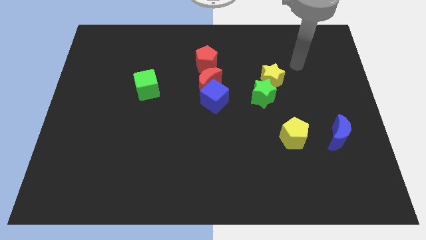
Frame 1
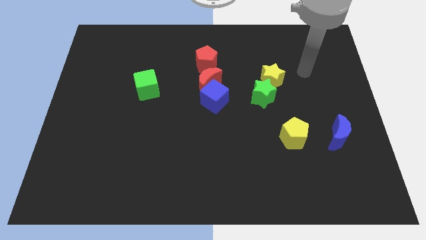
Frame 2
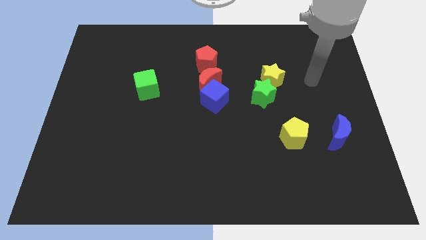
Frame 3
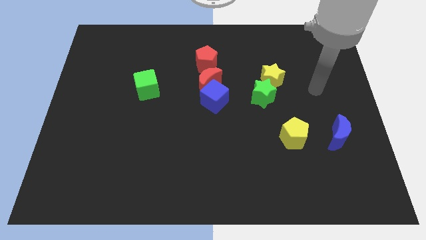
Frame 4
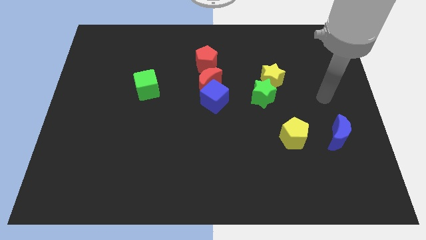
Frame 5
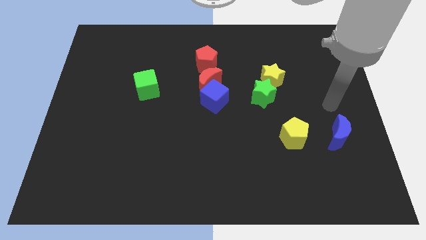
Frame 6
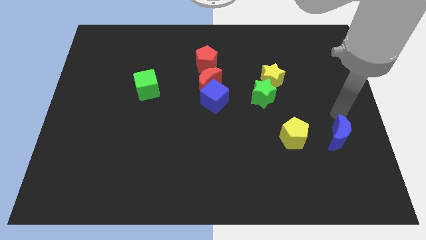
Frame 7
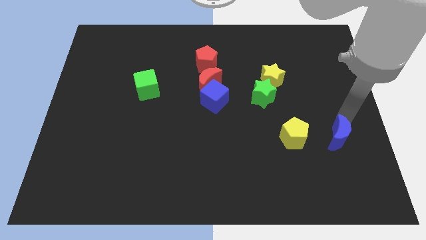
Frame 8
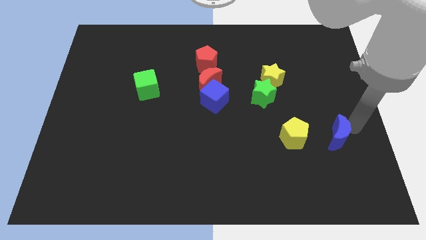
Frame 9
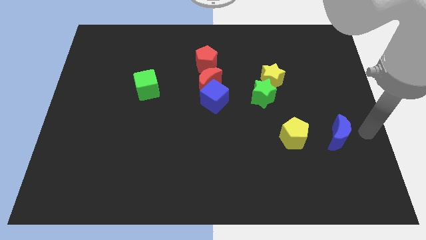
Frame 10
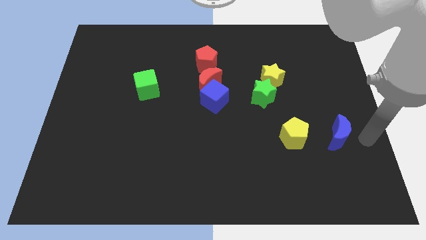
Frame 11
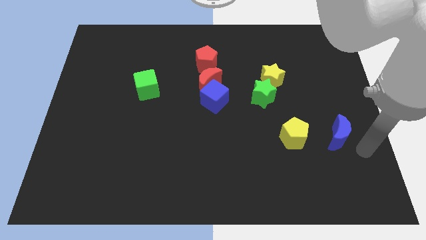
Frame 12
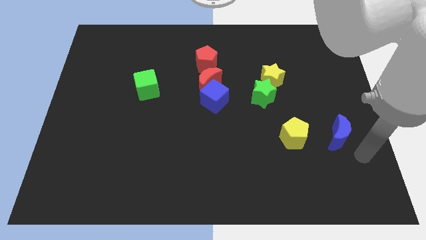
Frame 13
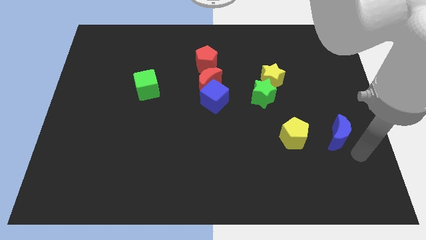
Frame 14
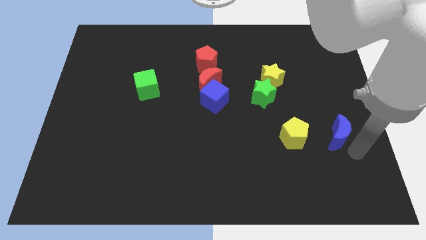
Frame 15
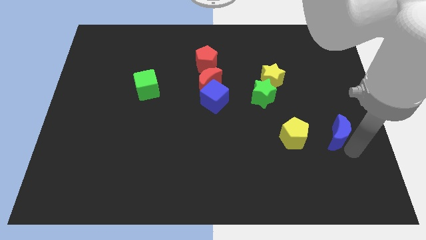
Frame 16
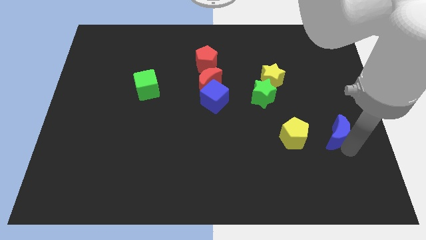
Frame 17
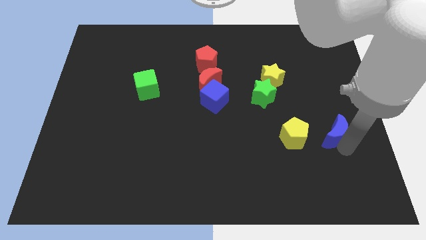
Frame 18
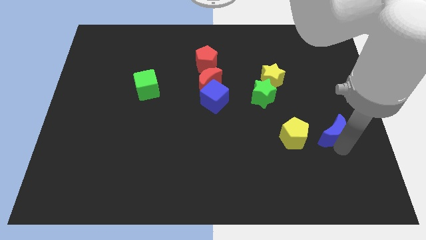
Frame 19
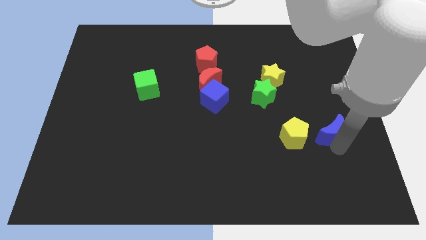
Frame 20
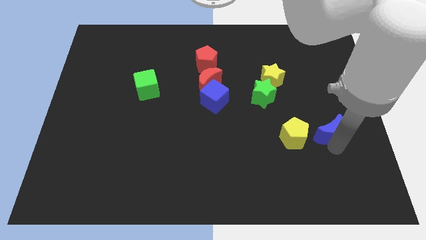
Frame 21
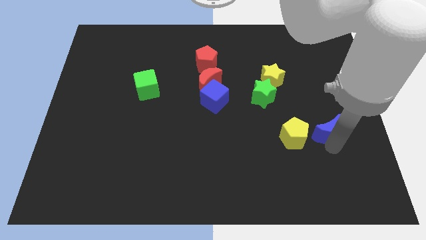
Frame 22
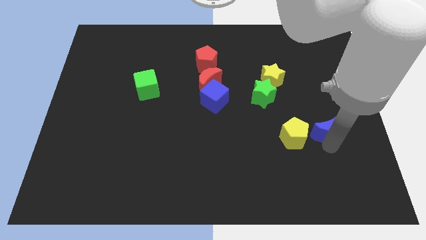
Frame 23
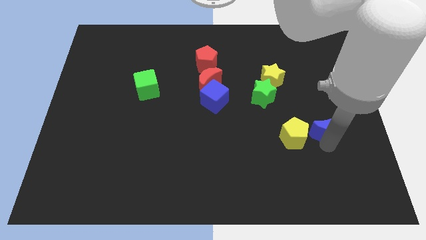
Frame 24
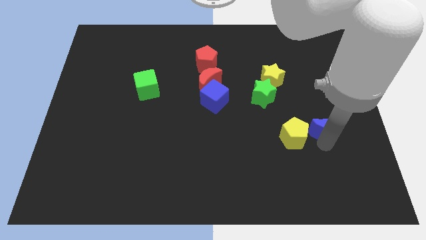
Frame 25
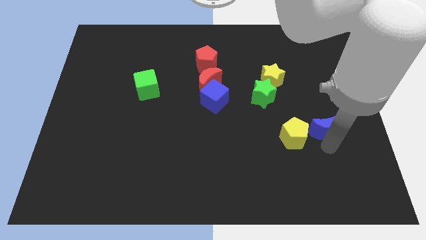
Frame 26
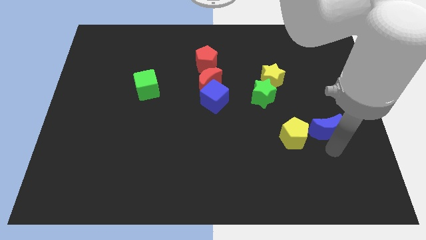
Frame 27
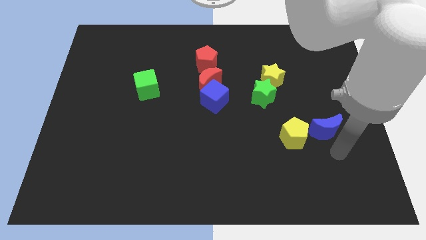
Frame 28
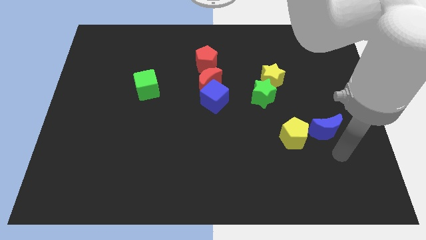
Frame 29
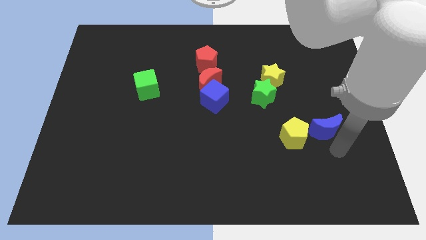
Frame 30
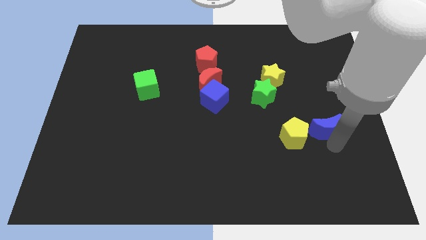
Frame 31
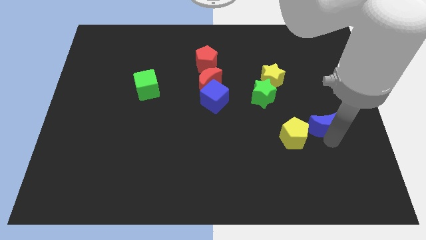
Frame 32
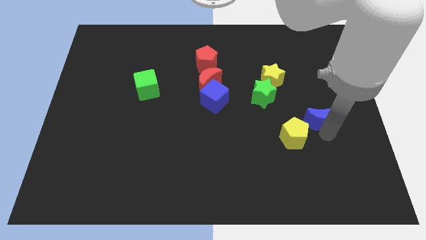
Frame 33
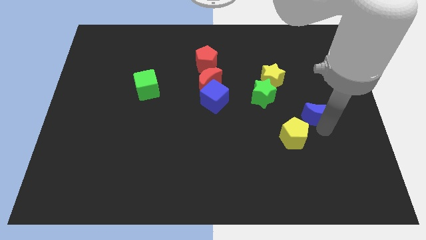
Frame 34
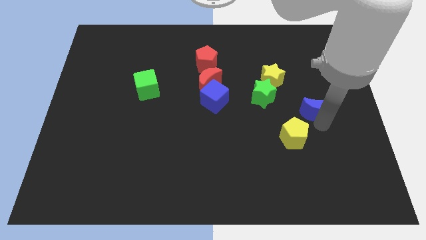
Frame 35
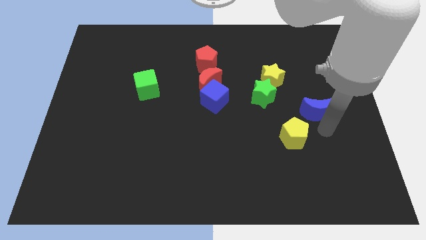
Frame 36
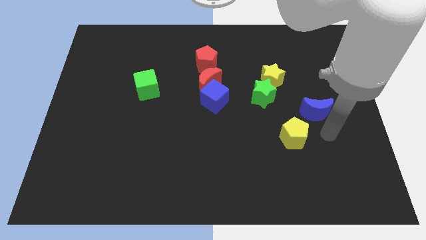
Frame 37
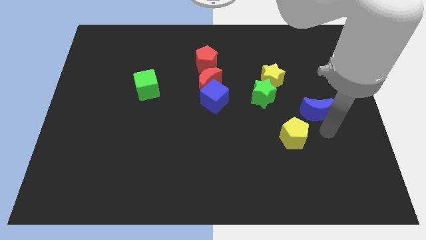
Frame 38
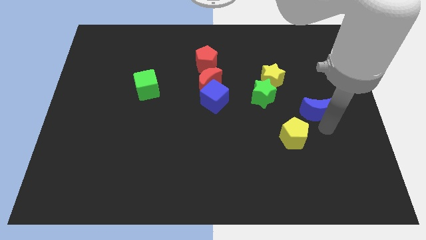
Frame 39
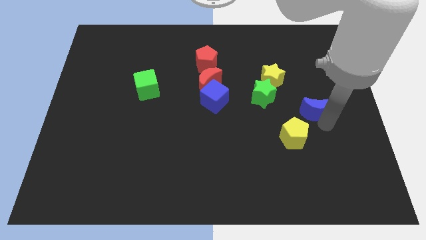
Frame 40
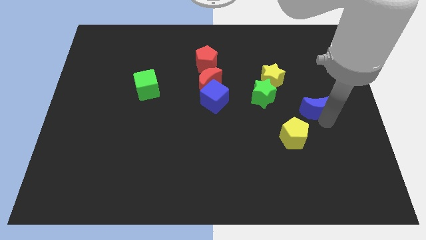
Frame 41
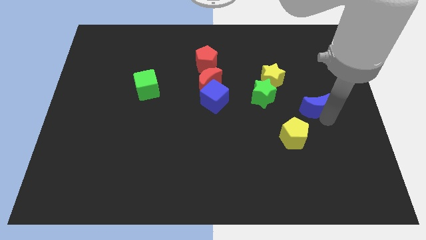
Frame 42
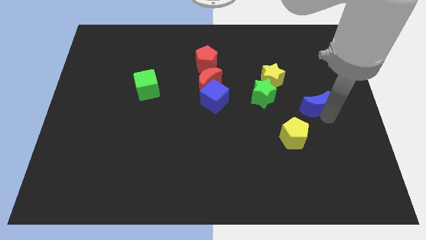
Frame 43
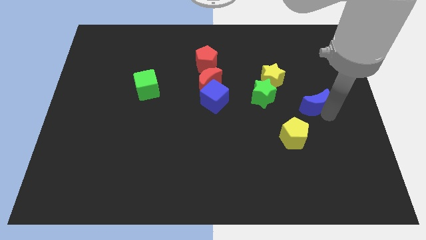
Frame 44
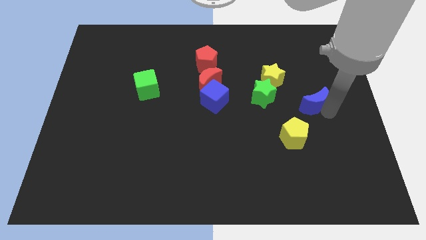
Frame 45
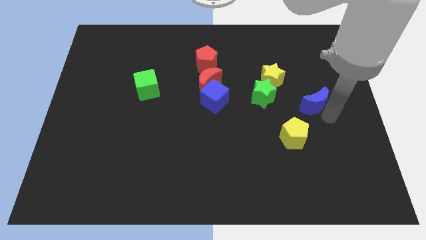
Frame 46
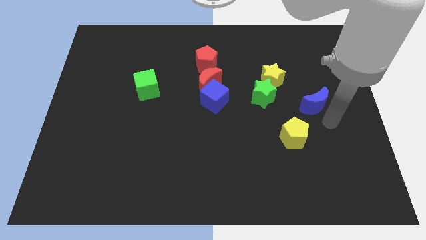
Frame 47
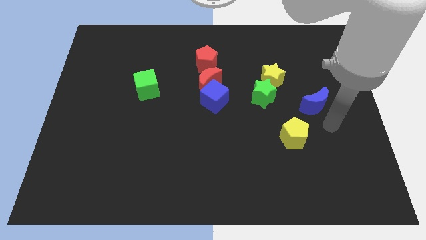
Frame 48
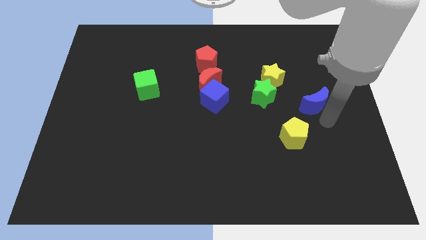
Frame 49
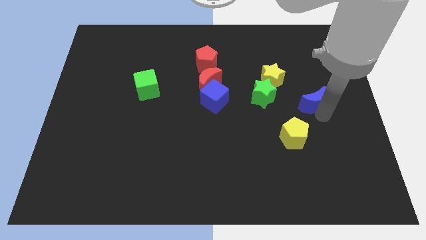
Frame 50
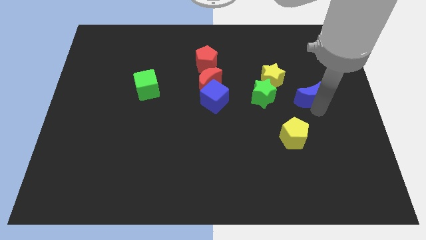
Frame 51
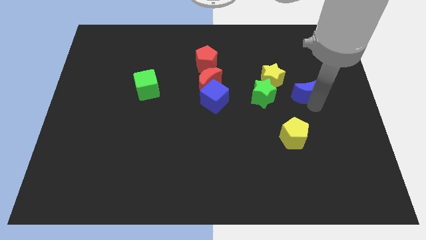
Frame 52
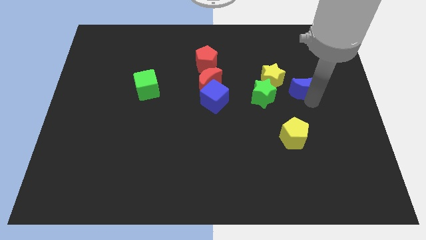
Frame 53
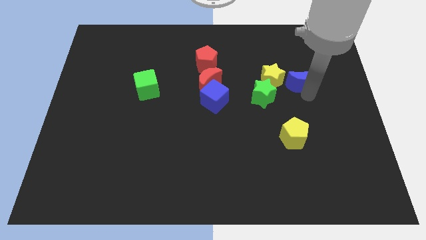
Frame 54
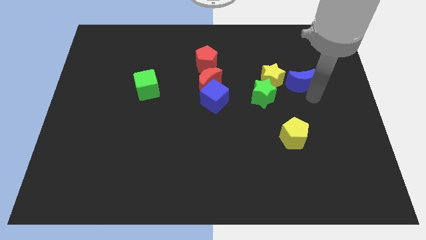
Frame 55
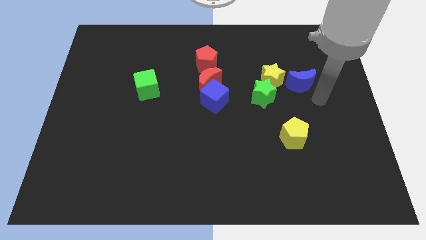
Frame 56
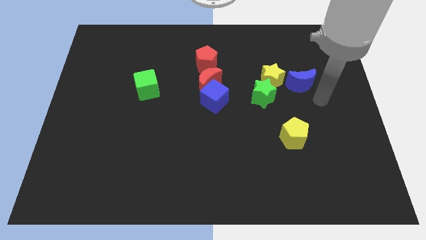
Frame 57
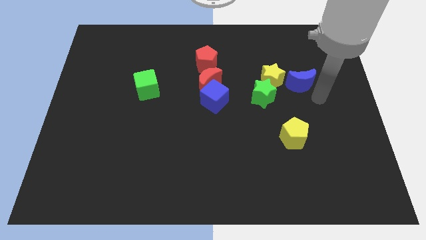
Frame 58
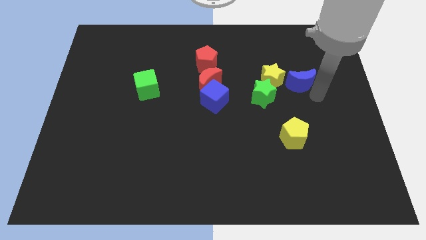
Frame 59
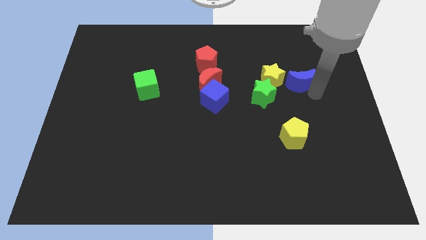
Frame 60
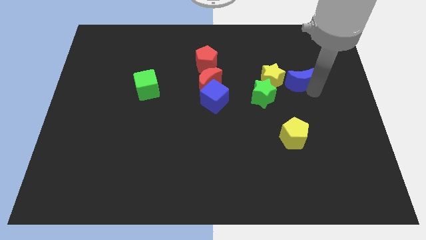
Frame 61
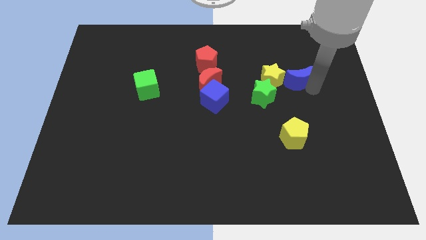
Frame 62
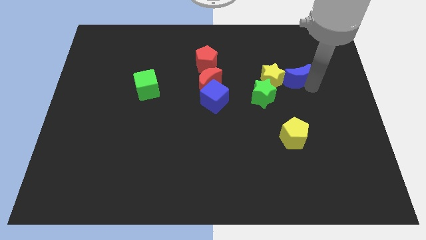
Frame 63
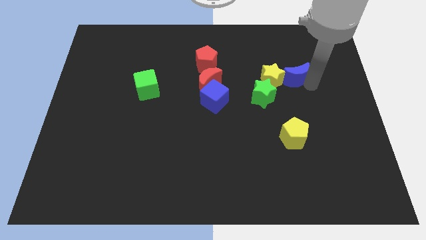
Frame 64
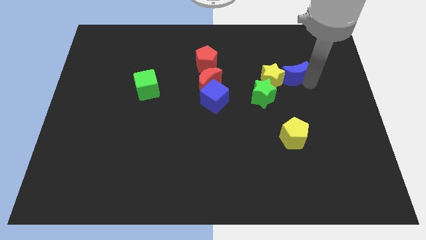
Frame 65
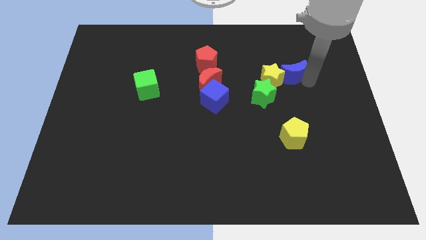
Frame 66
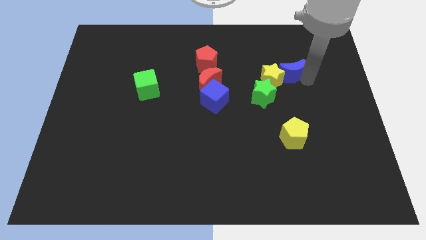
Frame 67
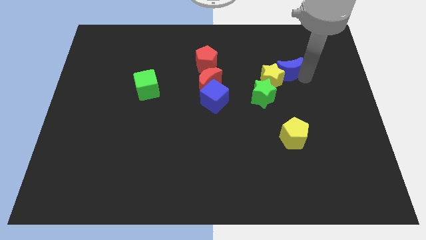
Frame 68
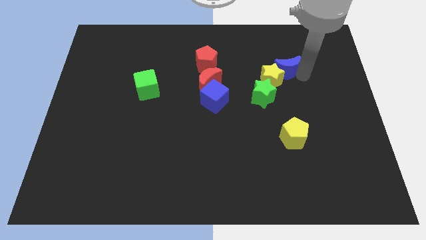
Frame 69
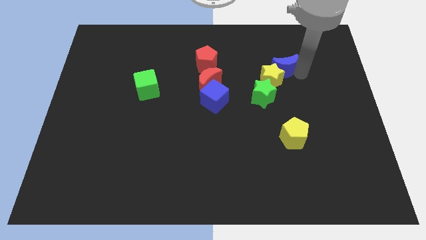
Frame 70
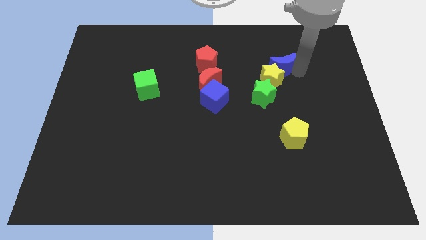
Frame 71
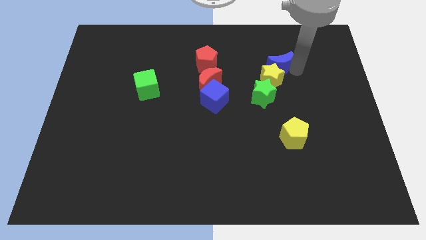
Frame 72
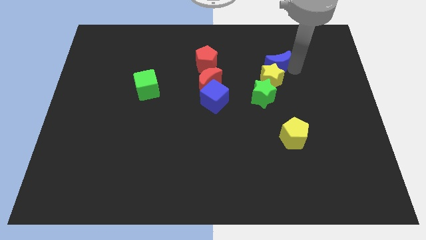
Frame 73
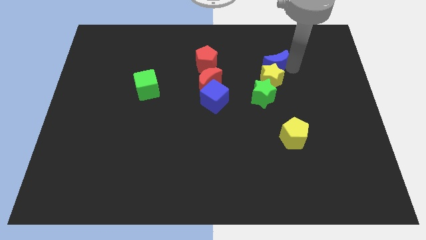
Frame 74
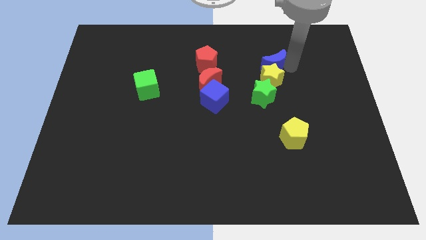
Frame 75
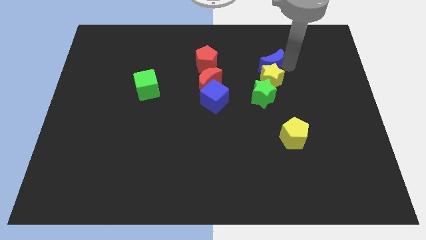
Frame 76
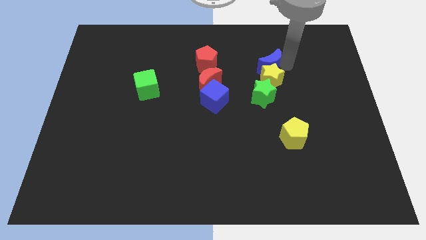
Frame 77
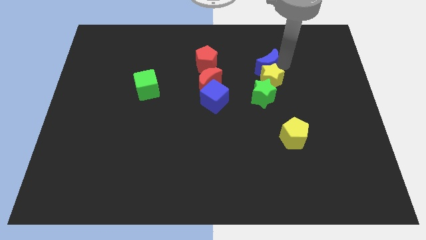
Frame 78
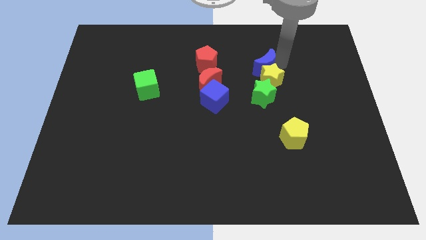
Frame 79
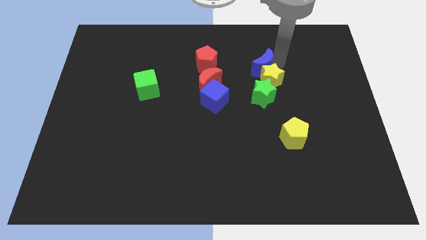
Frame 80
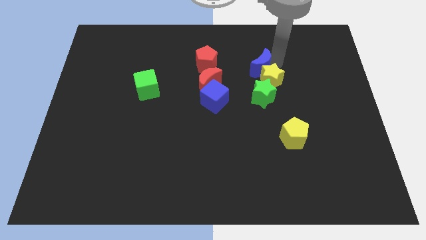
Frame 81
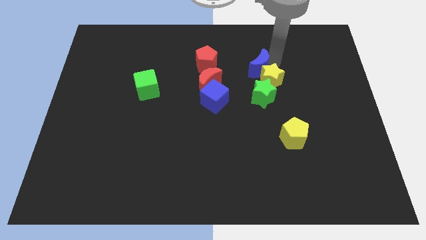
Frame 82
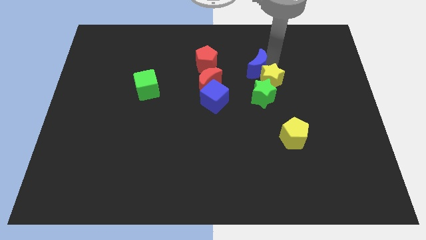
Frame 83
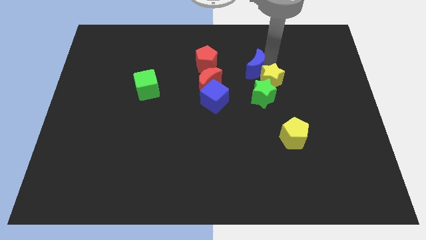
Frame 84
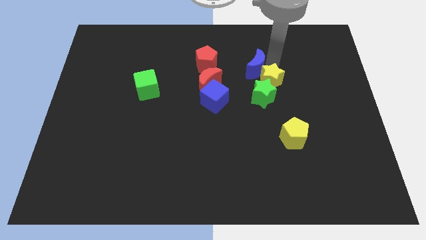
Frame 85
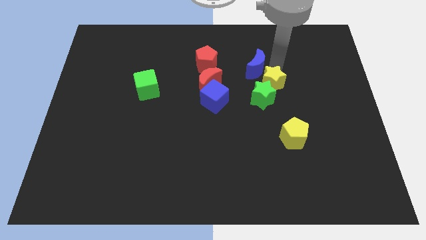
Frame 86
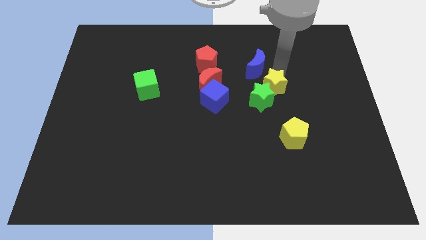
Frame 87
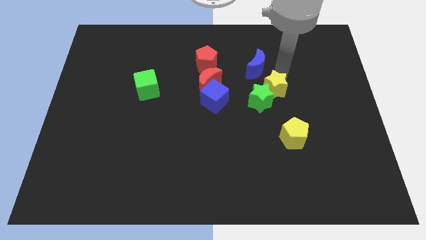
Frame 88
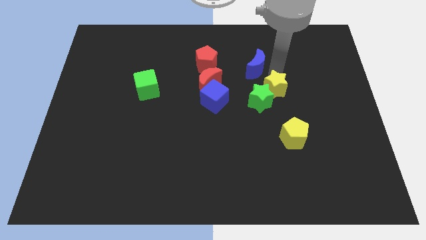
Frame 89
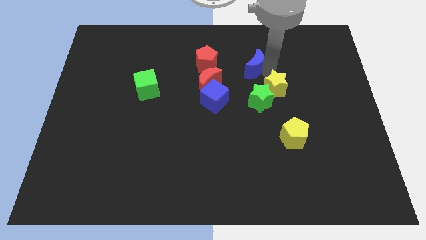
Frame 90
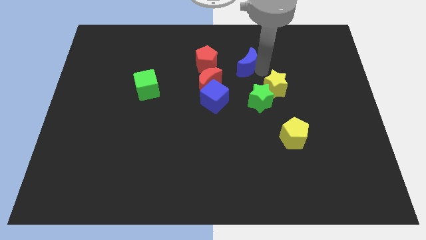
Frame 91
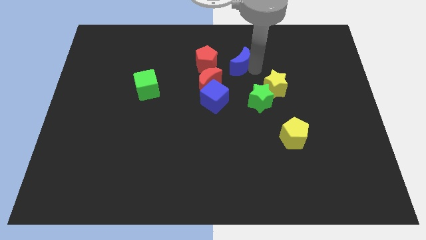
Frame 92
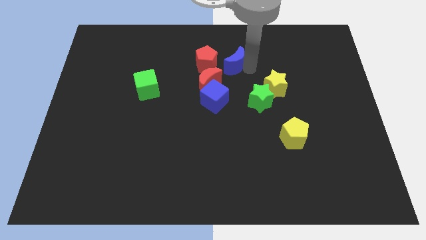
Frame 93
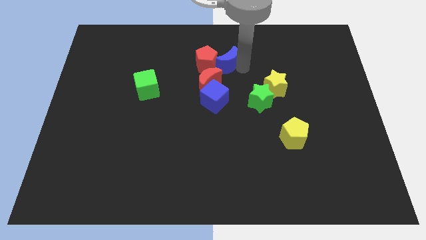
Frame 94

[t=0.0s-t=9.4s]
push the blue moon above the blue cube
